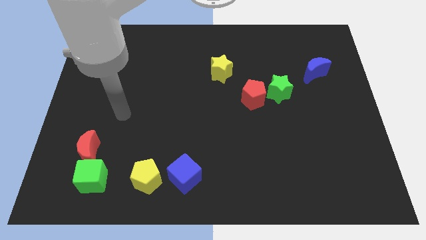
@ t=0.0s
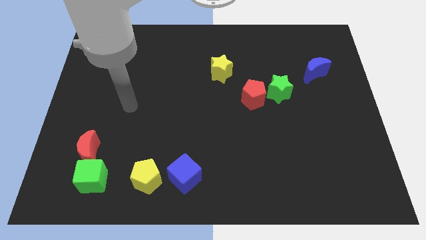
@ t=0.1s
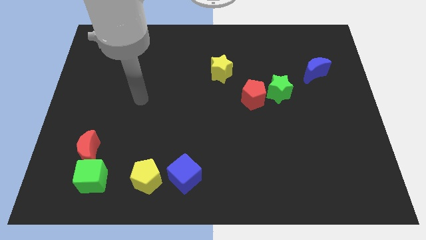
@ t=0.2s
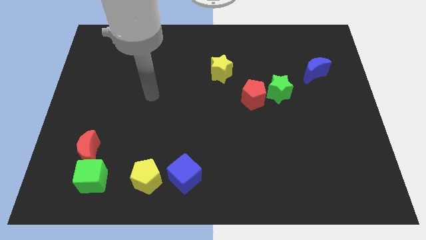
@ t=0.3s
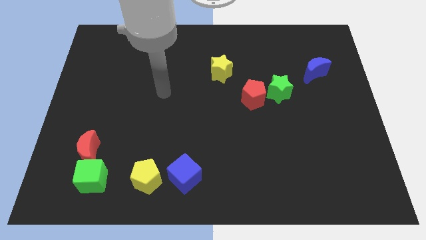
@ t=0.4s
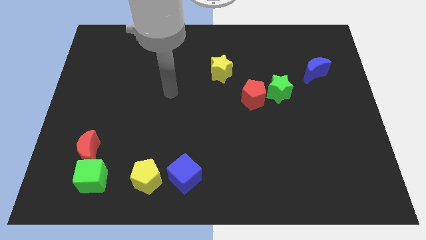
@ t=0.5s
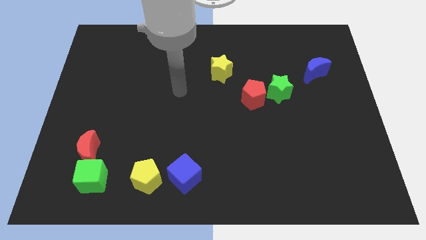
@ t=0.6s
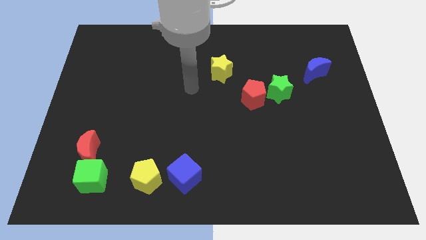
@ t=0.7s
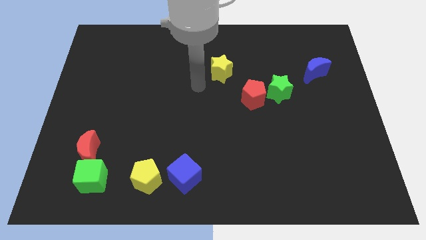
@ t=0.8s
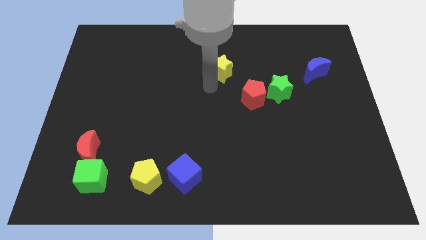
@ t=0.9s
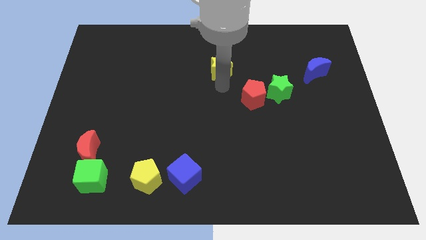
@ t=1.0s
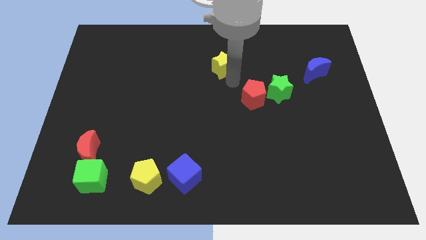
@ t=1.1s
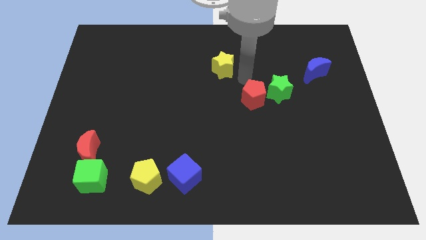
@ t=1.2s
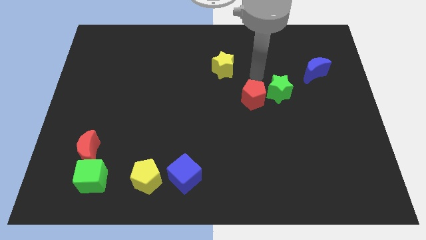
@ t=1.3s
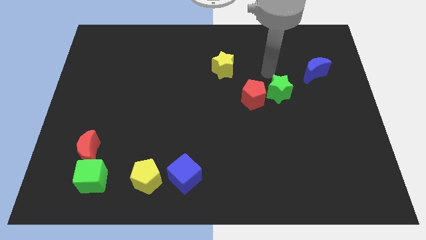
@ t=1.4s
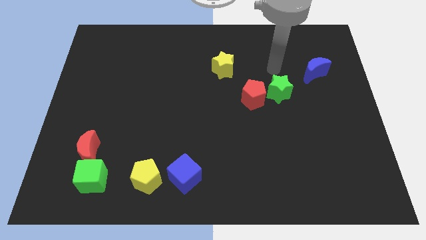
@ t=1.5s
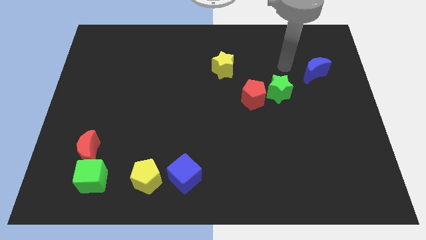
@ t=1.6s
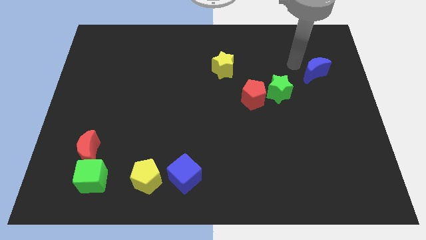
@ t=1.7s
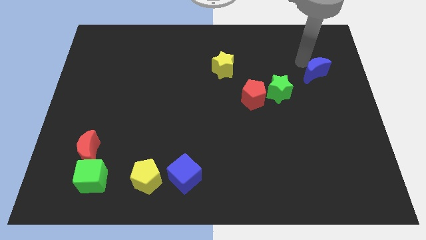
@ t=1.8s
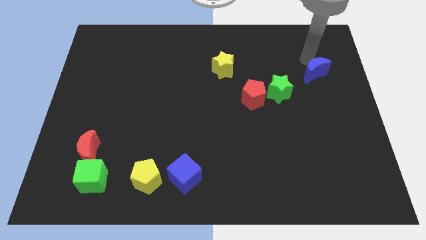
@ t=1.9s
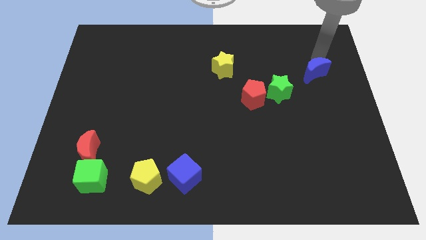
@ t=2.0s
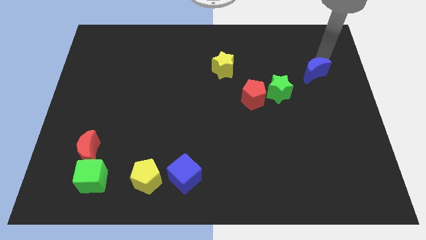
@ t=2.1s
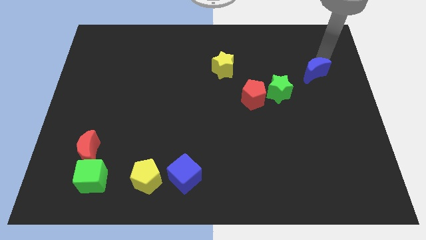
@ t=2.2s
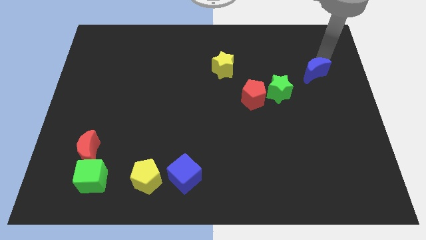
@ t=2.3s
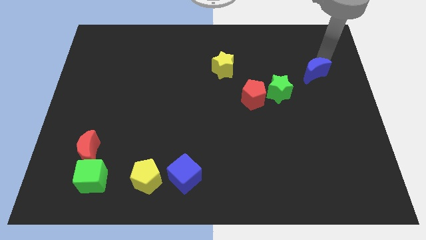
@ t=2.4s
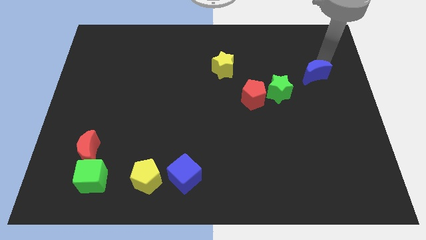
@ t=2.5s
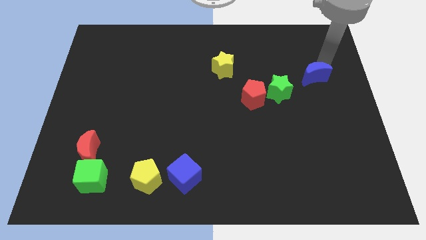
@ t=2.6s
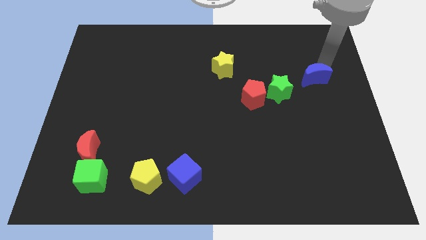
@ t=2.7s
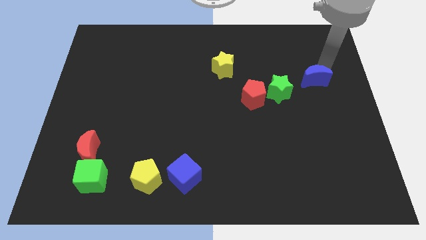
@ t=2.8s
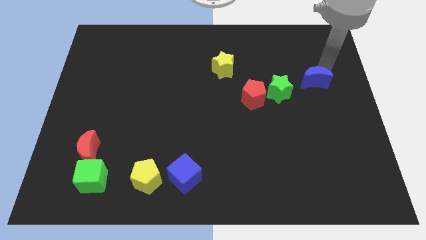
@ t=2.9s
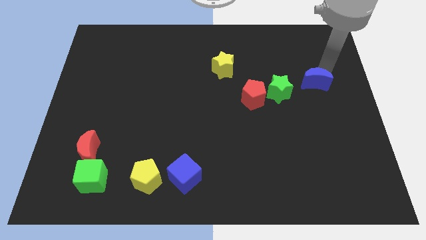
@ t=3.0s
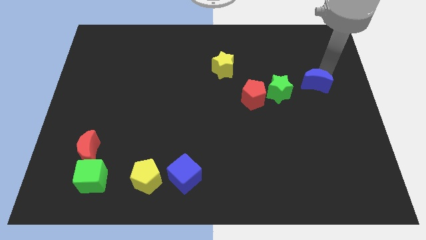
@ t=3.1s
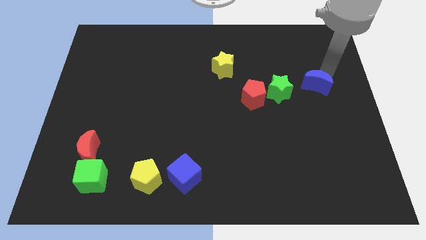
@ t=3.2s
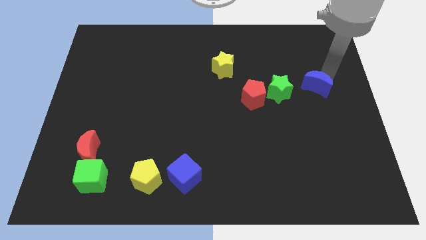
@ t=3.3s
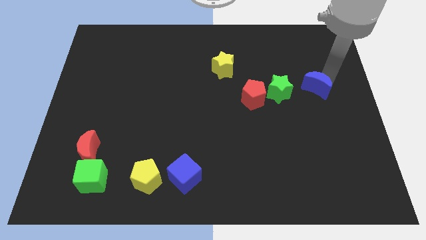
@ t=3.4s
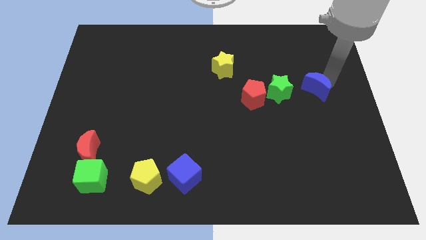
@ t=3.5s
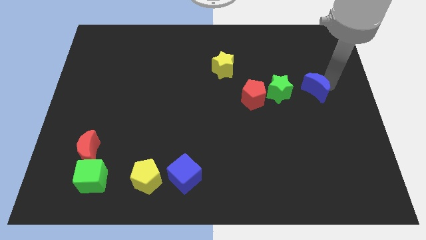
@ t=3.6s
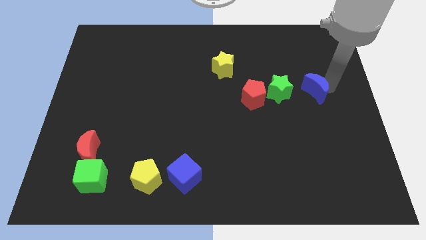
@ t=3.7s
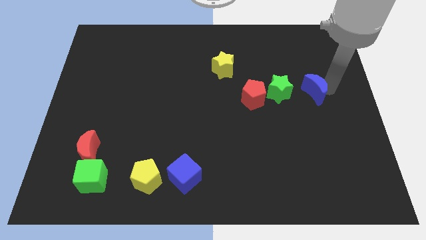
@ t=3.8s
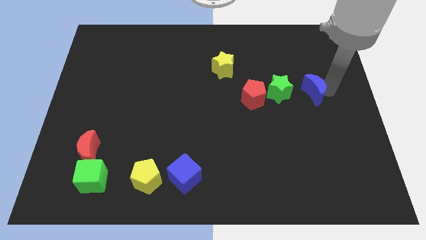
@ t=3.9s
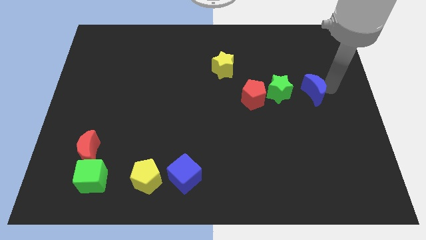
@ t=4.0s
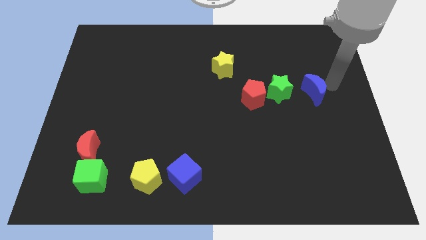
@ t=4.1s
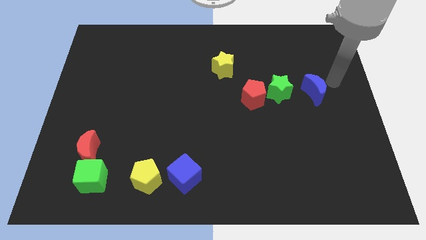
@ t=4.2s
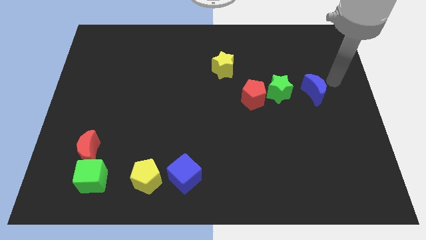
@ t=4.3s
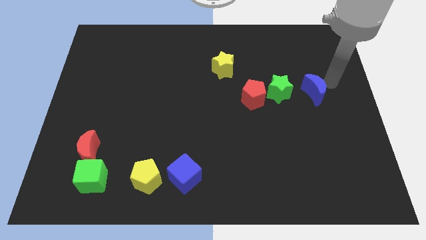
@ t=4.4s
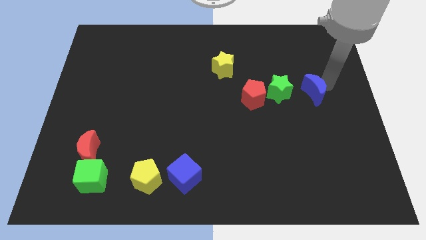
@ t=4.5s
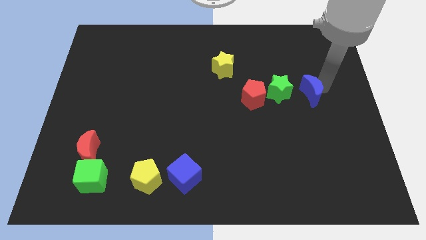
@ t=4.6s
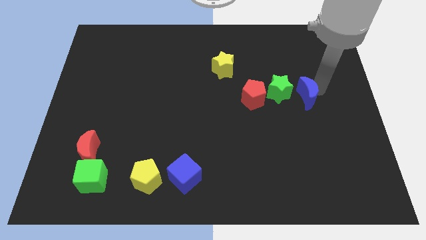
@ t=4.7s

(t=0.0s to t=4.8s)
slide the blue moon diagonally downwards and to the left a bit

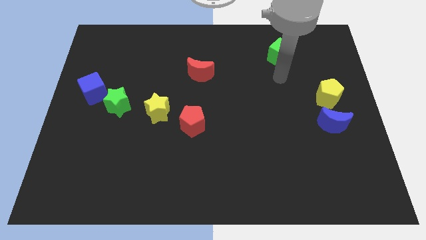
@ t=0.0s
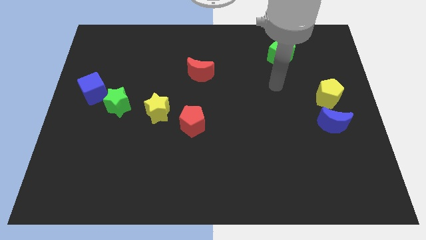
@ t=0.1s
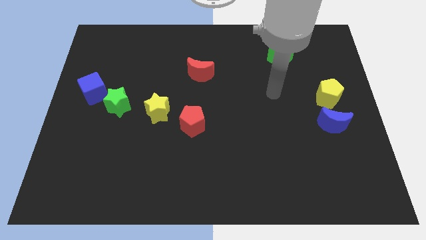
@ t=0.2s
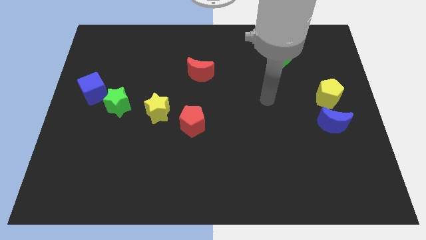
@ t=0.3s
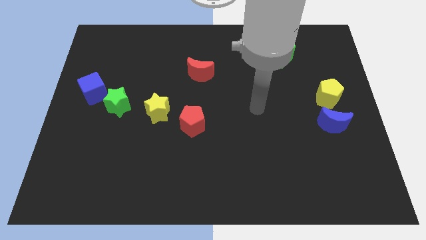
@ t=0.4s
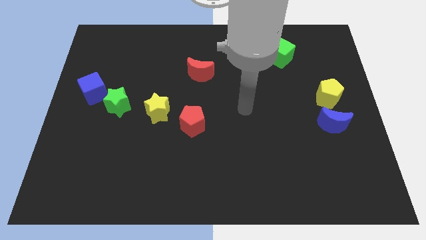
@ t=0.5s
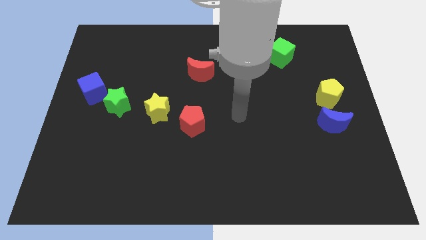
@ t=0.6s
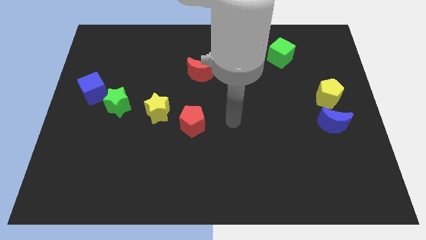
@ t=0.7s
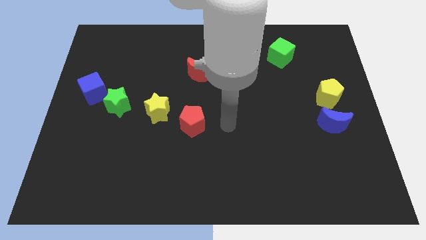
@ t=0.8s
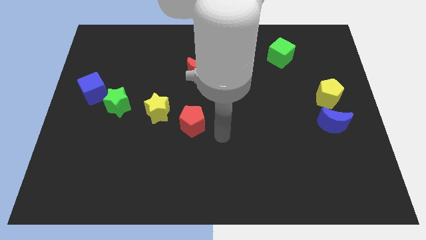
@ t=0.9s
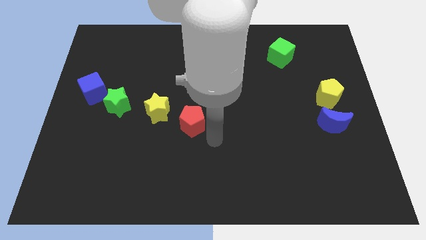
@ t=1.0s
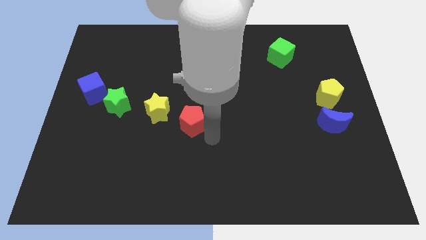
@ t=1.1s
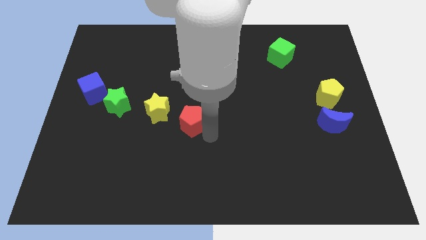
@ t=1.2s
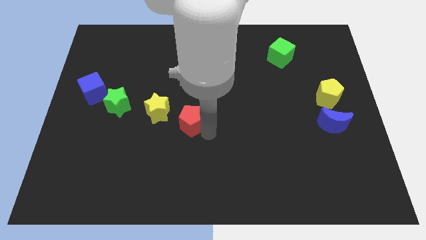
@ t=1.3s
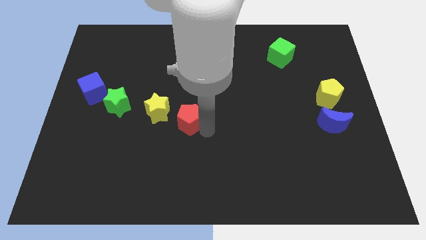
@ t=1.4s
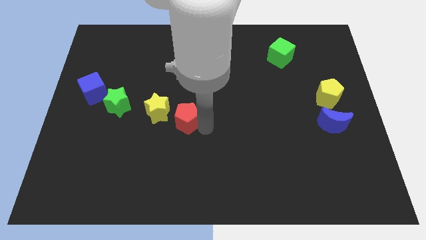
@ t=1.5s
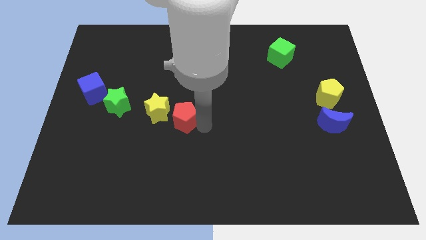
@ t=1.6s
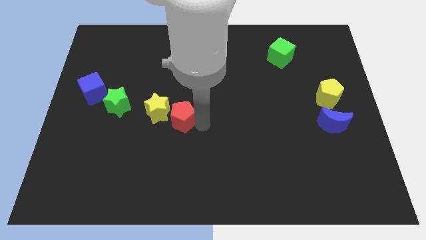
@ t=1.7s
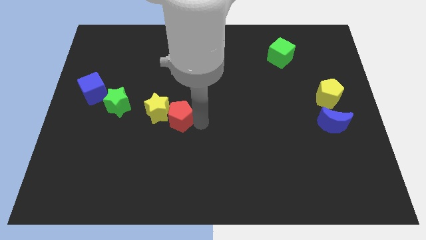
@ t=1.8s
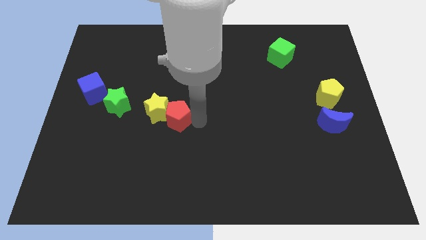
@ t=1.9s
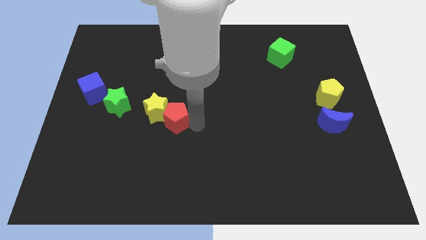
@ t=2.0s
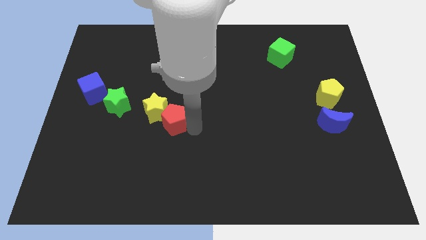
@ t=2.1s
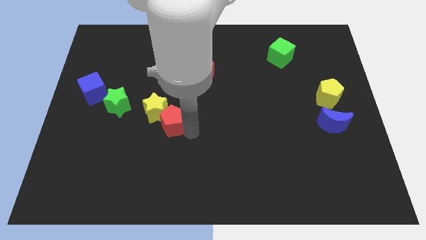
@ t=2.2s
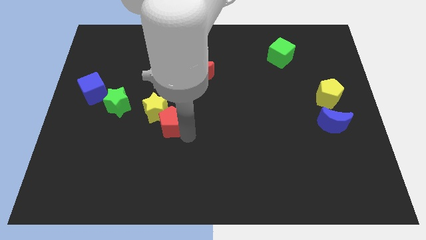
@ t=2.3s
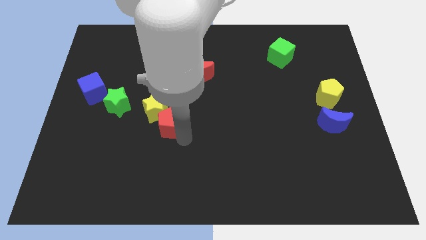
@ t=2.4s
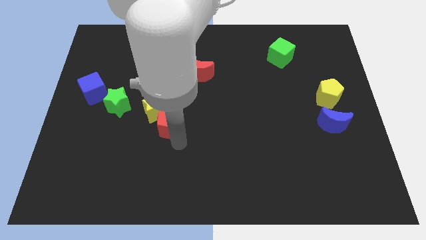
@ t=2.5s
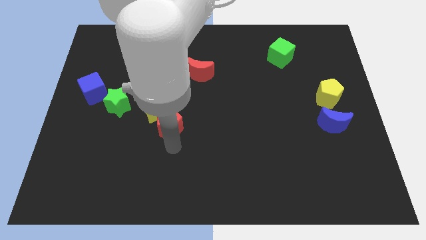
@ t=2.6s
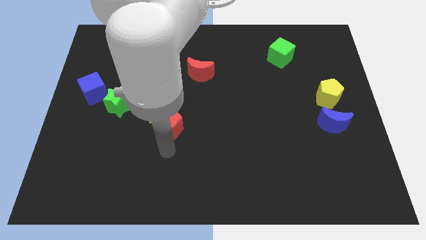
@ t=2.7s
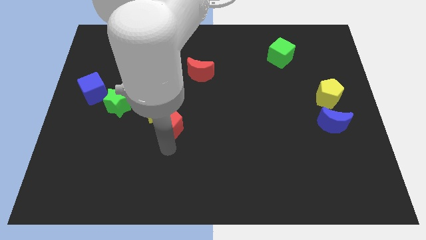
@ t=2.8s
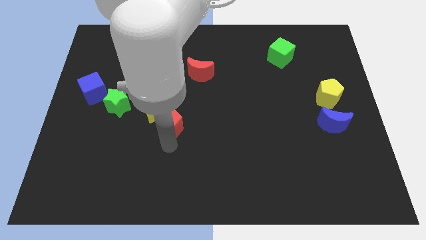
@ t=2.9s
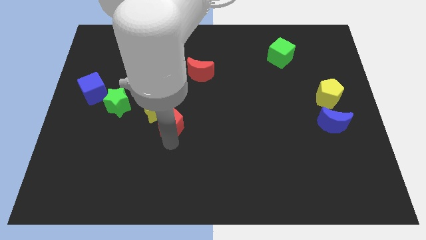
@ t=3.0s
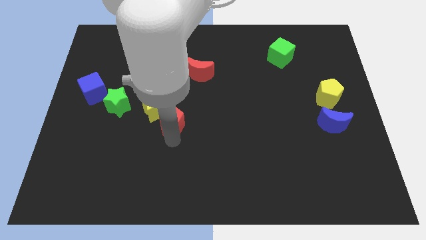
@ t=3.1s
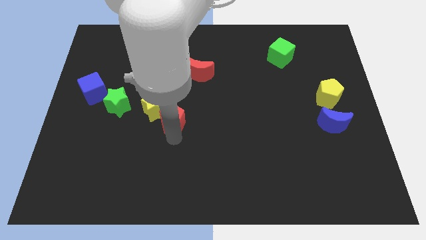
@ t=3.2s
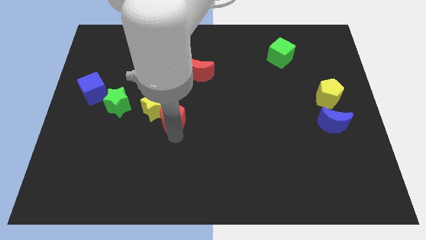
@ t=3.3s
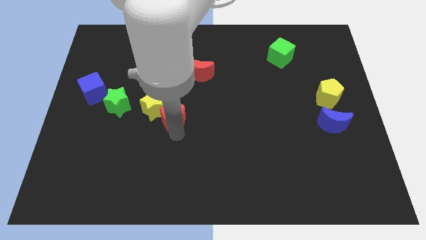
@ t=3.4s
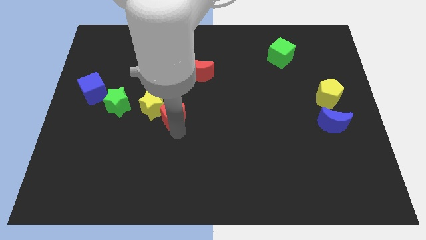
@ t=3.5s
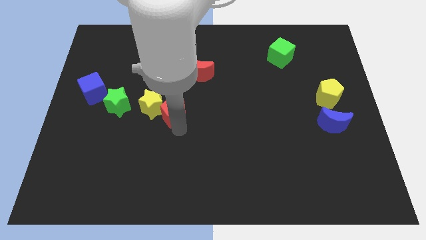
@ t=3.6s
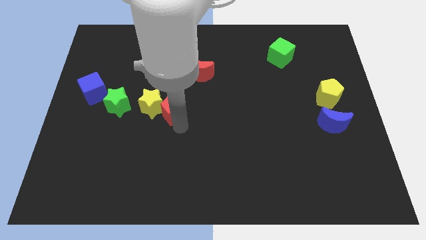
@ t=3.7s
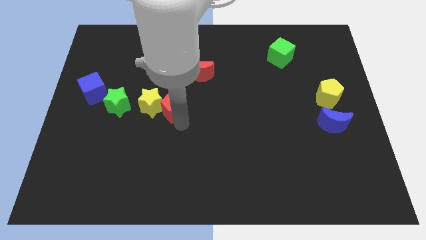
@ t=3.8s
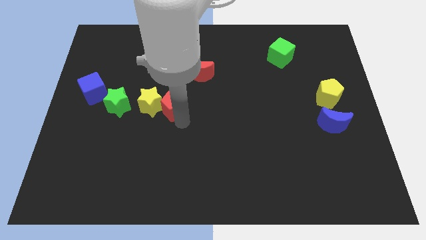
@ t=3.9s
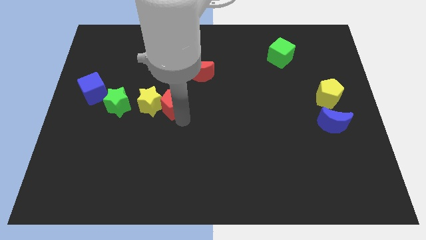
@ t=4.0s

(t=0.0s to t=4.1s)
push the red pentagon upwards and then left somewhat
